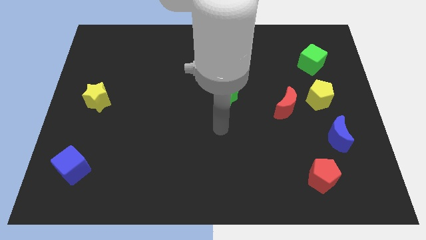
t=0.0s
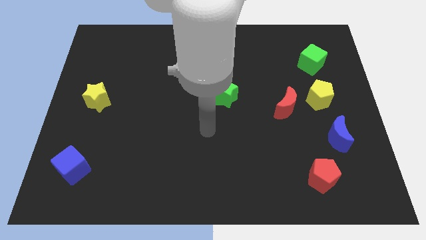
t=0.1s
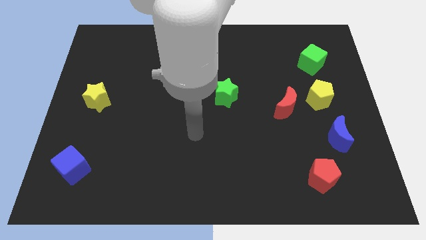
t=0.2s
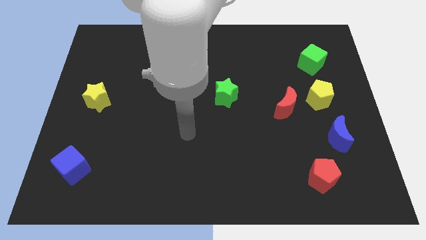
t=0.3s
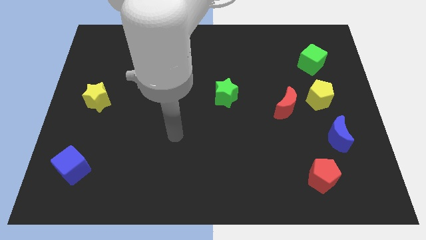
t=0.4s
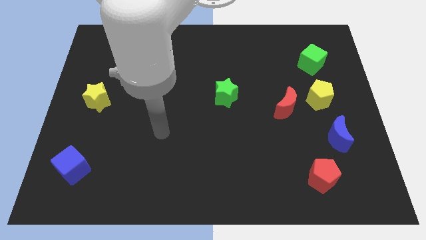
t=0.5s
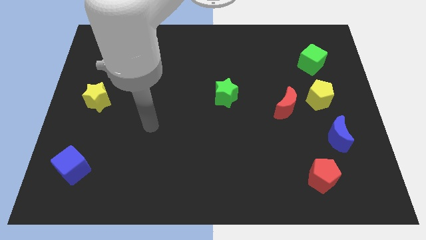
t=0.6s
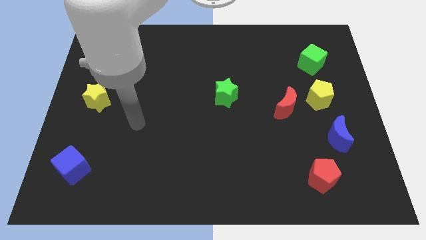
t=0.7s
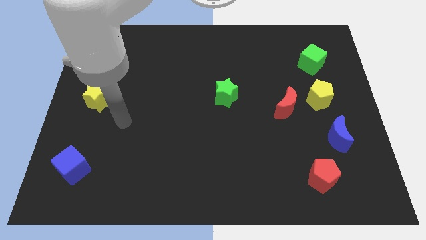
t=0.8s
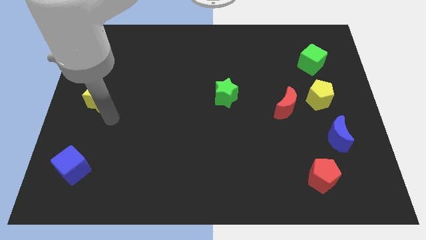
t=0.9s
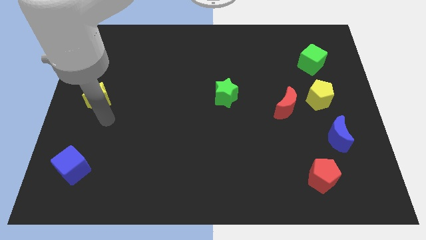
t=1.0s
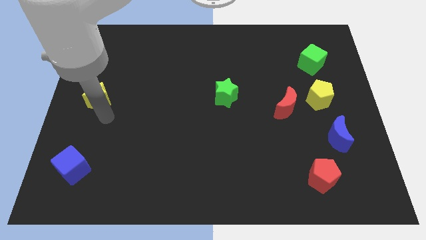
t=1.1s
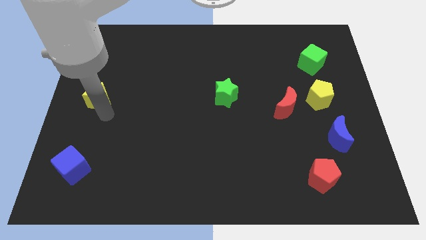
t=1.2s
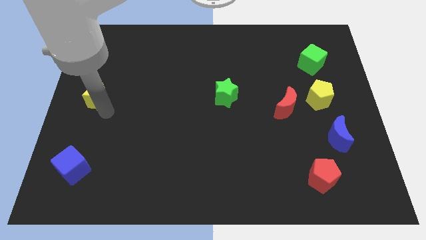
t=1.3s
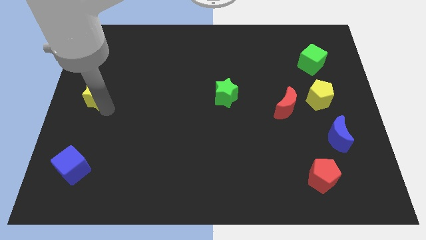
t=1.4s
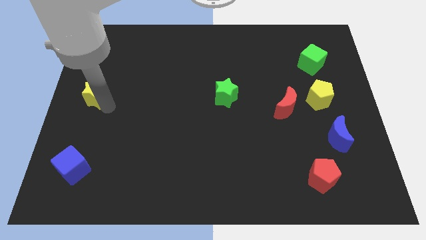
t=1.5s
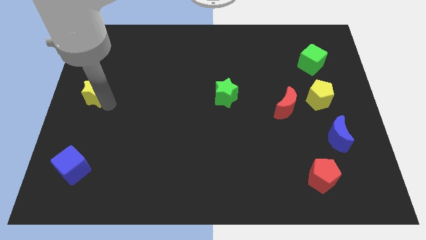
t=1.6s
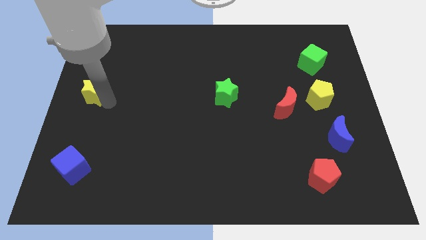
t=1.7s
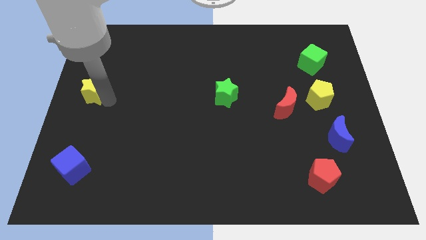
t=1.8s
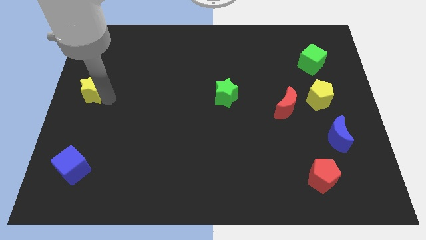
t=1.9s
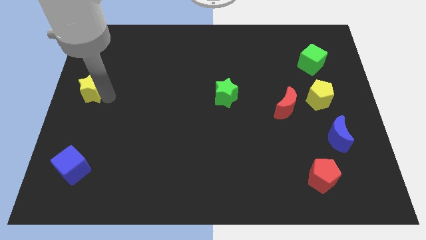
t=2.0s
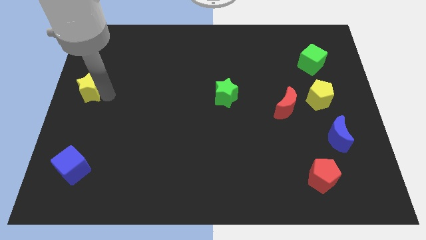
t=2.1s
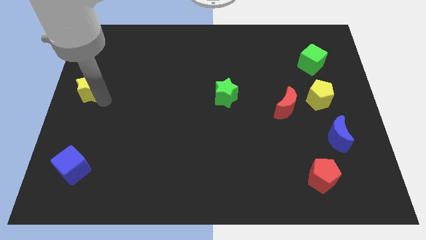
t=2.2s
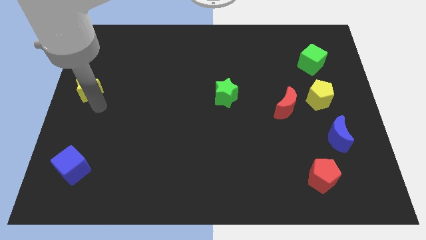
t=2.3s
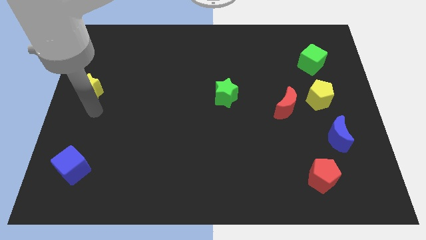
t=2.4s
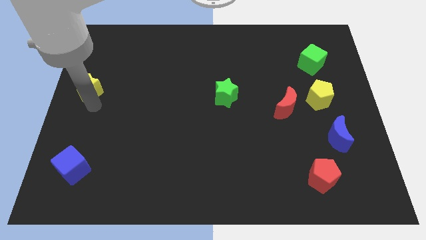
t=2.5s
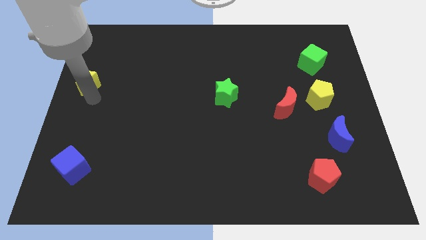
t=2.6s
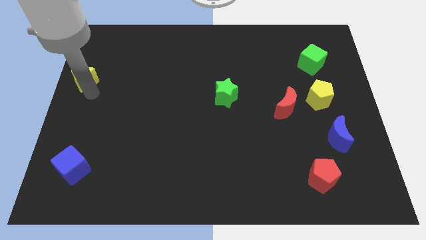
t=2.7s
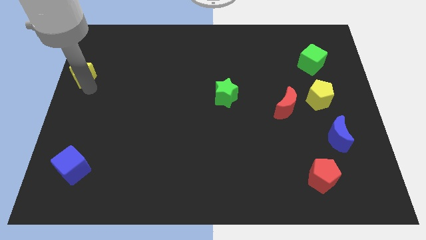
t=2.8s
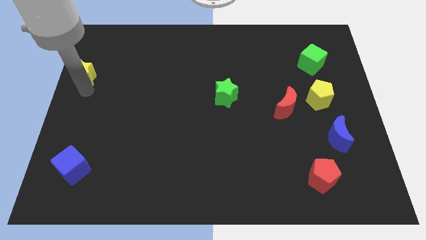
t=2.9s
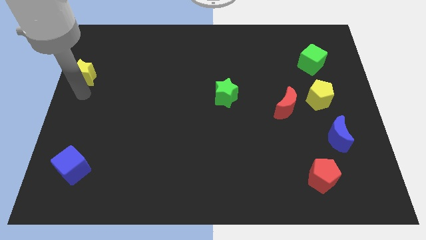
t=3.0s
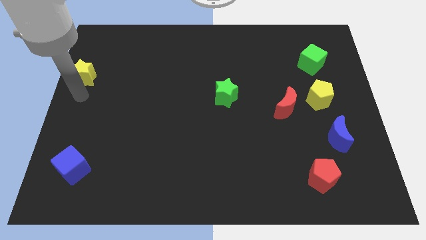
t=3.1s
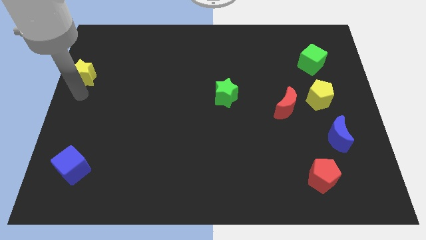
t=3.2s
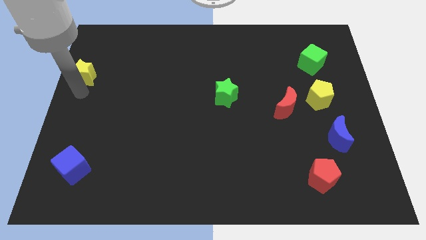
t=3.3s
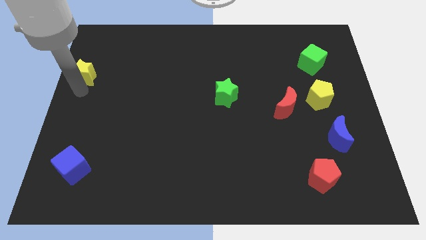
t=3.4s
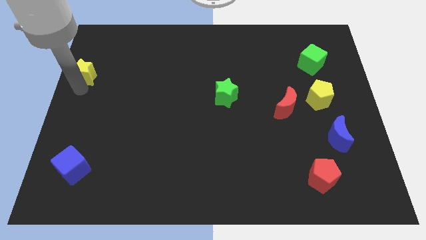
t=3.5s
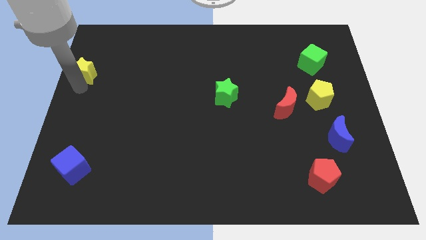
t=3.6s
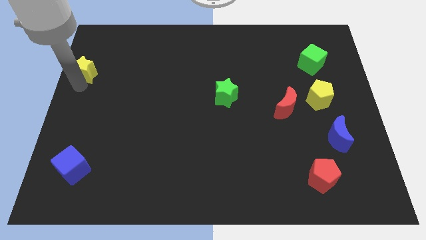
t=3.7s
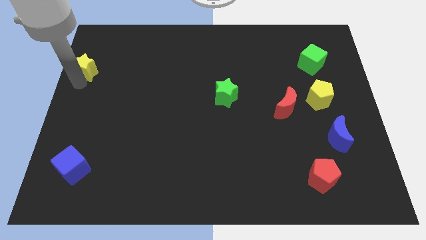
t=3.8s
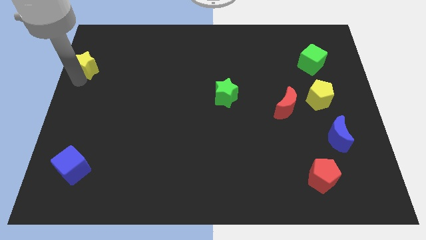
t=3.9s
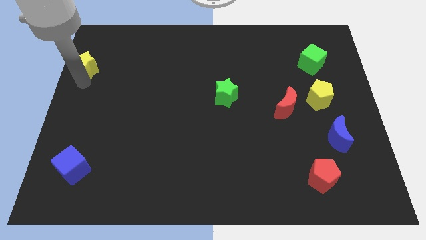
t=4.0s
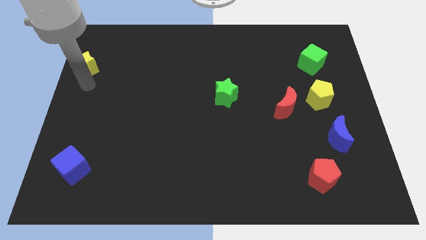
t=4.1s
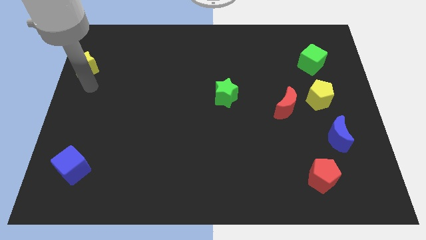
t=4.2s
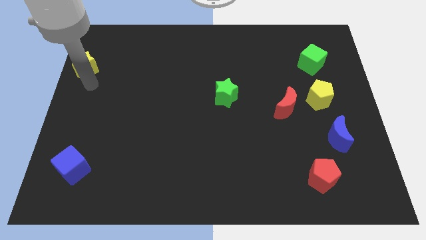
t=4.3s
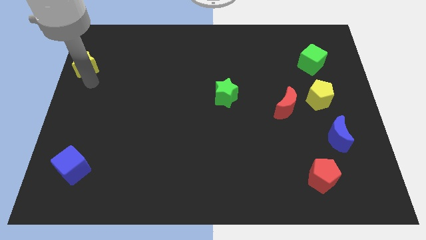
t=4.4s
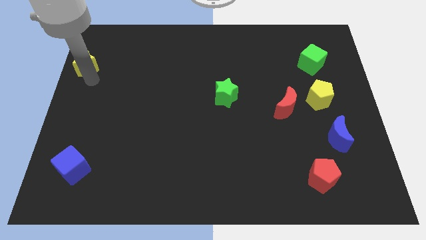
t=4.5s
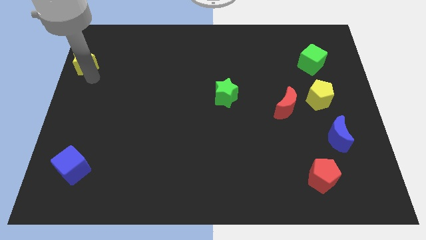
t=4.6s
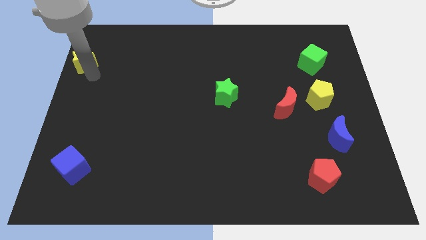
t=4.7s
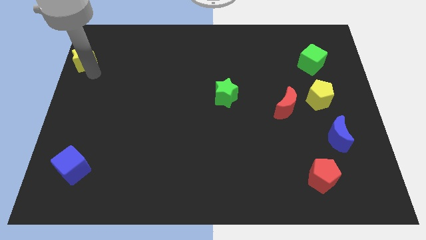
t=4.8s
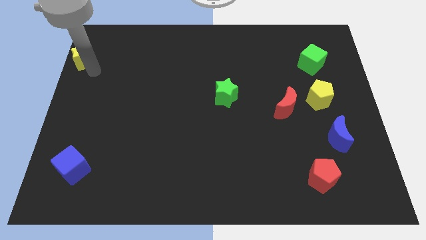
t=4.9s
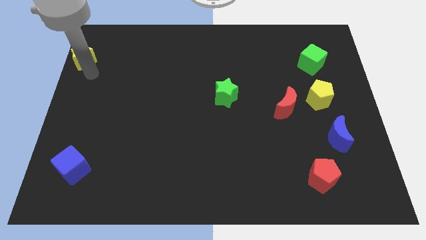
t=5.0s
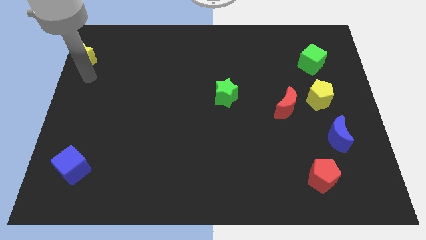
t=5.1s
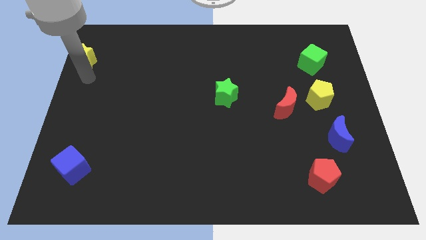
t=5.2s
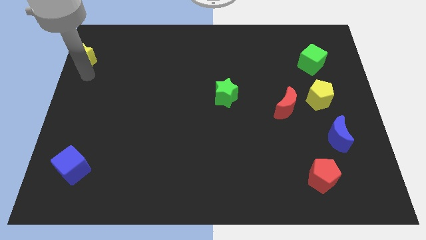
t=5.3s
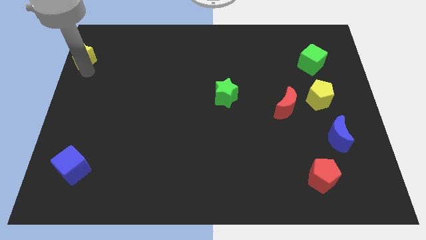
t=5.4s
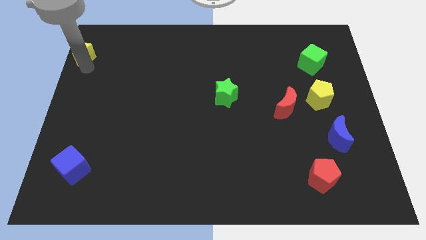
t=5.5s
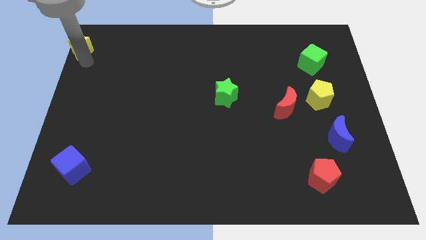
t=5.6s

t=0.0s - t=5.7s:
slide the yellow star to the upper left corner

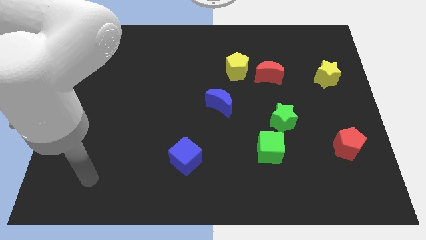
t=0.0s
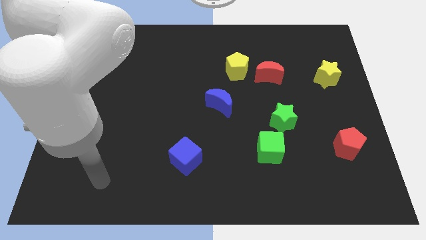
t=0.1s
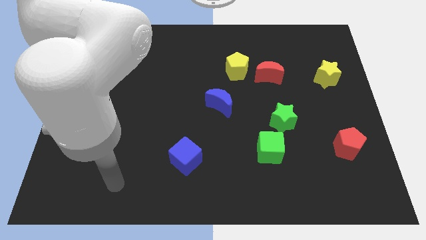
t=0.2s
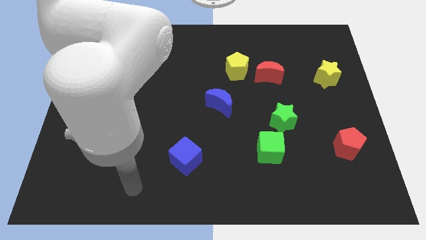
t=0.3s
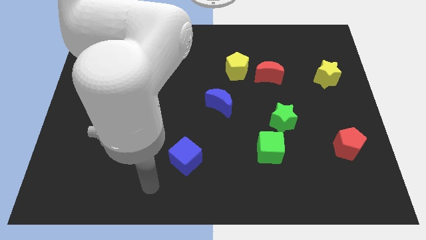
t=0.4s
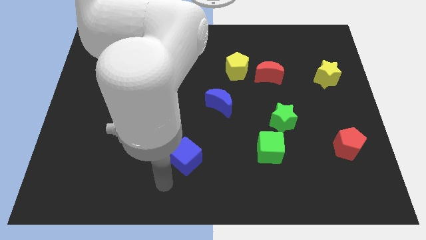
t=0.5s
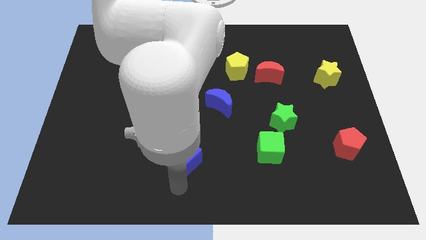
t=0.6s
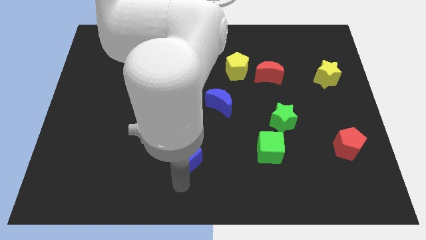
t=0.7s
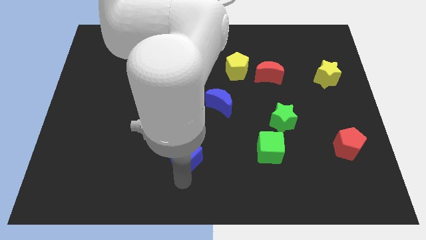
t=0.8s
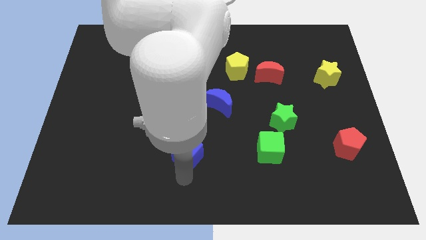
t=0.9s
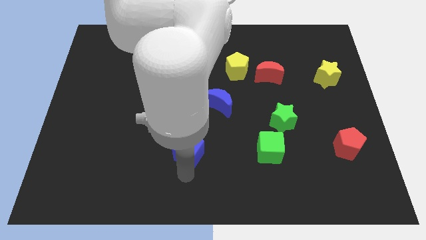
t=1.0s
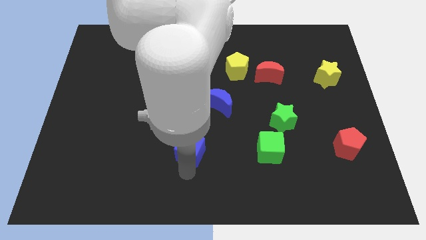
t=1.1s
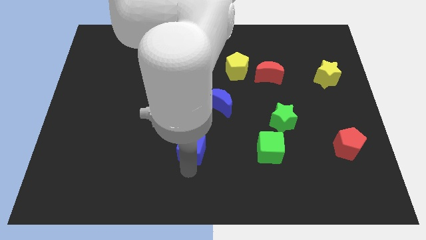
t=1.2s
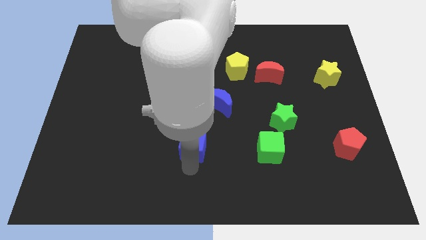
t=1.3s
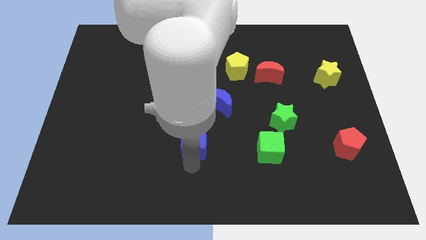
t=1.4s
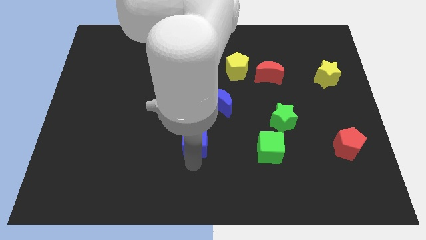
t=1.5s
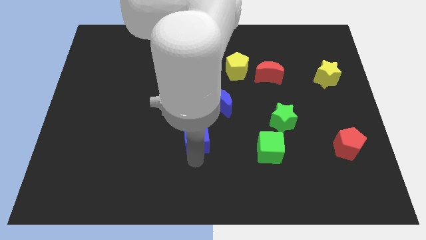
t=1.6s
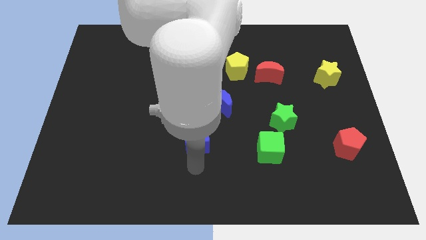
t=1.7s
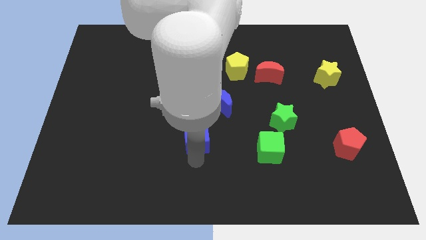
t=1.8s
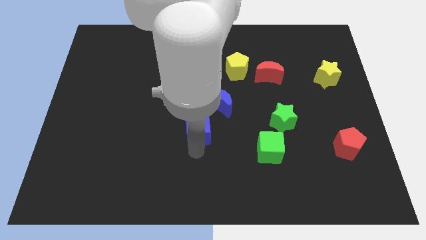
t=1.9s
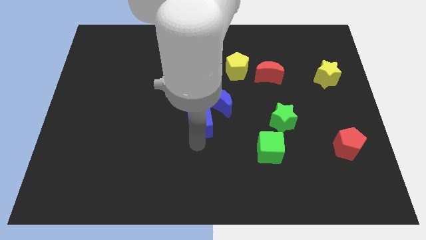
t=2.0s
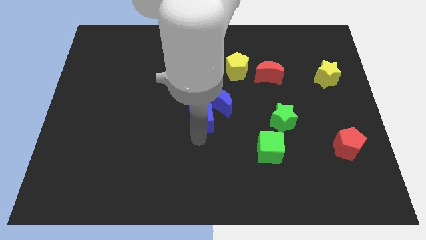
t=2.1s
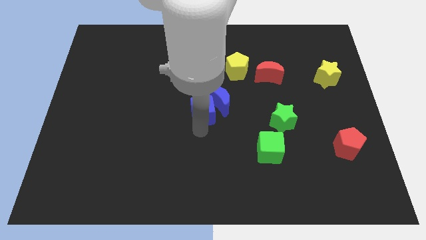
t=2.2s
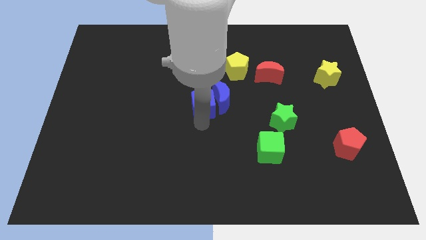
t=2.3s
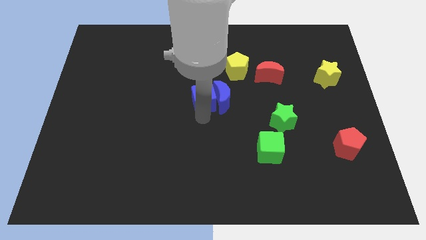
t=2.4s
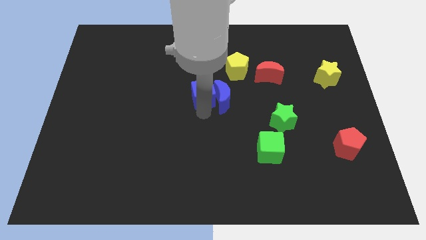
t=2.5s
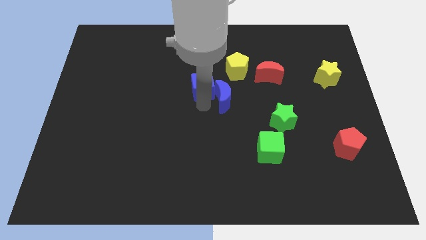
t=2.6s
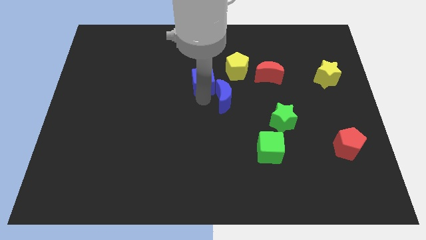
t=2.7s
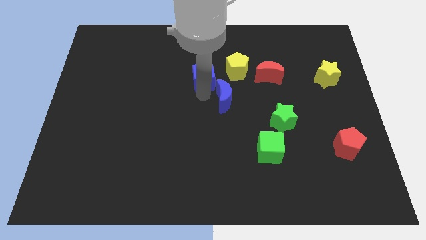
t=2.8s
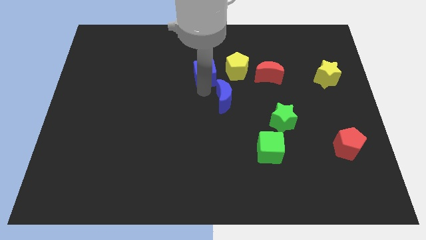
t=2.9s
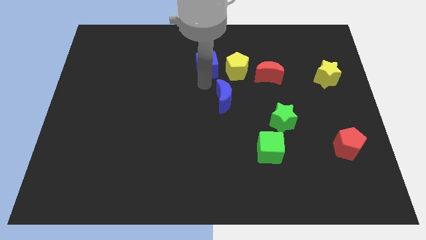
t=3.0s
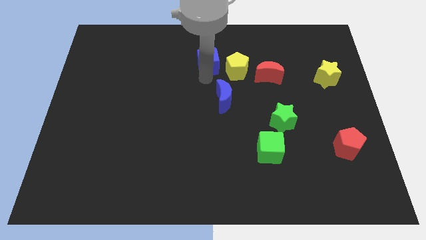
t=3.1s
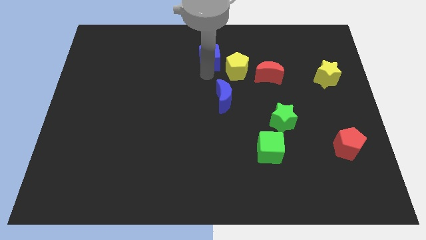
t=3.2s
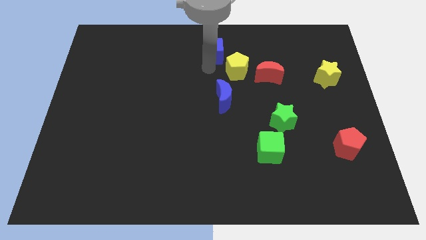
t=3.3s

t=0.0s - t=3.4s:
slide the blue cube to the top side
